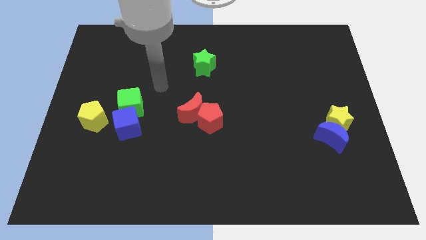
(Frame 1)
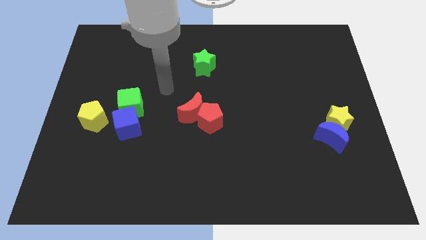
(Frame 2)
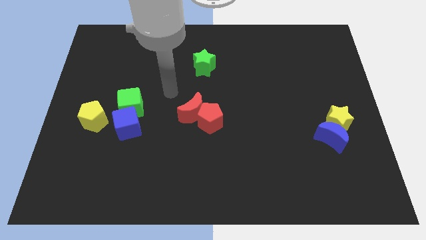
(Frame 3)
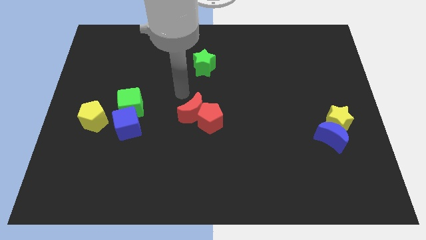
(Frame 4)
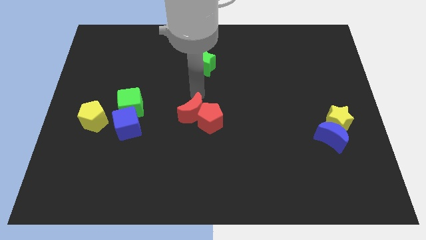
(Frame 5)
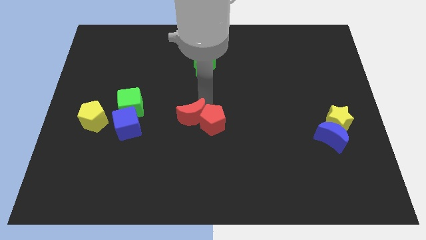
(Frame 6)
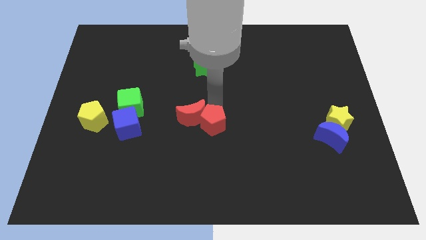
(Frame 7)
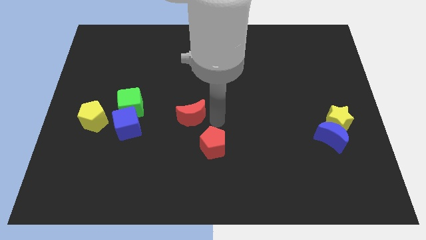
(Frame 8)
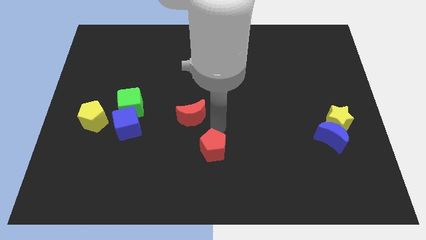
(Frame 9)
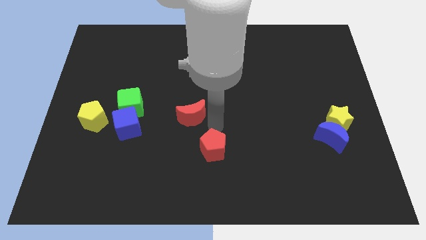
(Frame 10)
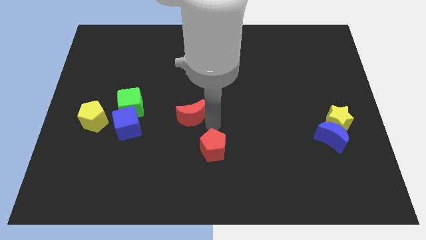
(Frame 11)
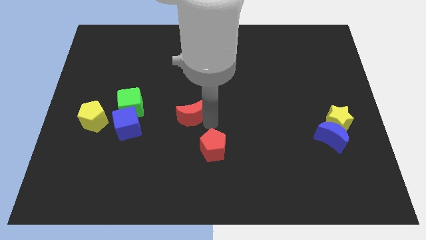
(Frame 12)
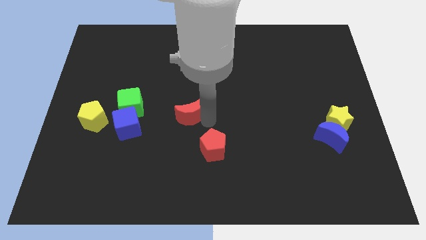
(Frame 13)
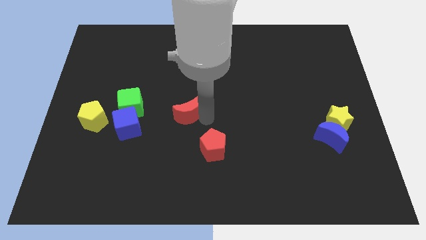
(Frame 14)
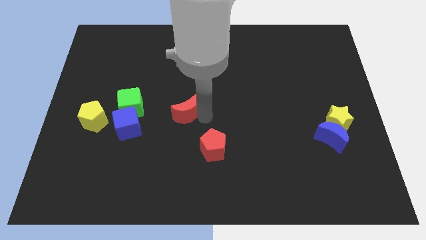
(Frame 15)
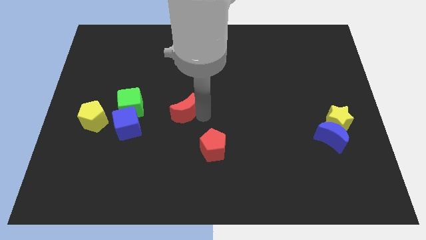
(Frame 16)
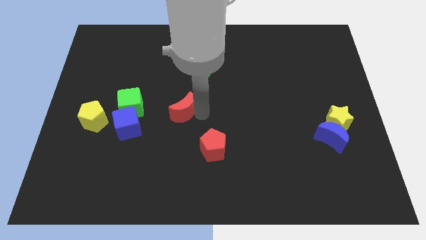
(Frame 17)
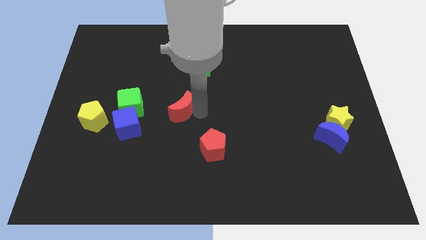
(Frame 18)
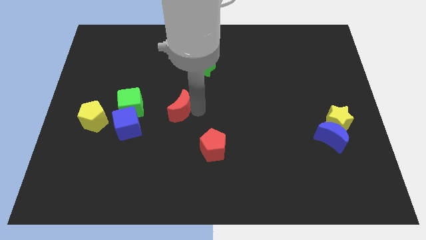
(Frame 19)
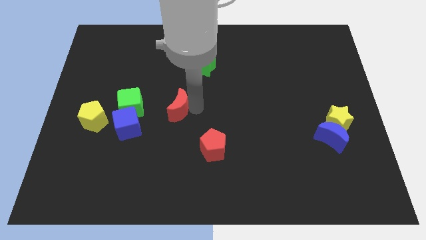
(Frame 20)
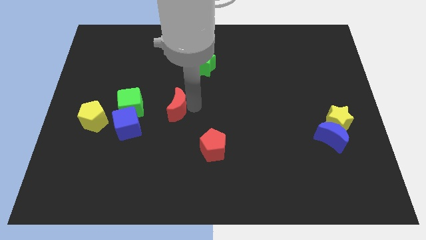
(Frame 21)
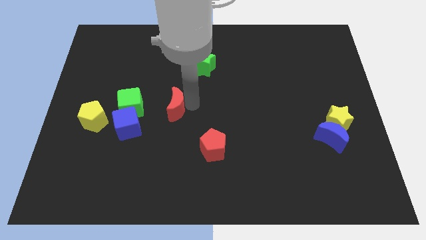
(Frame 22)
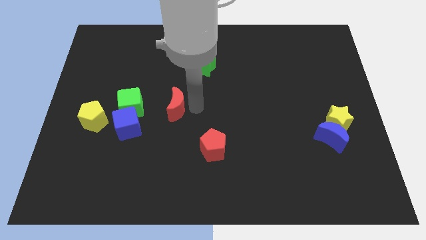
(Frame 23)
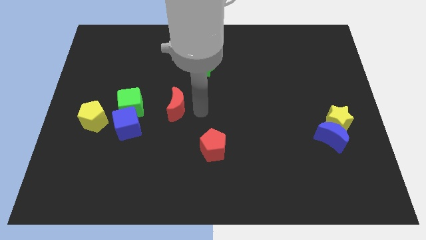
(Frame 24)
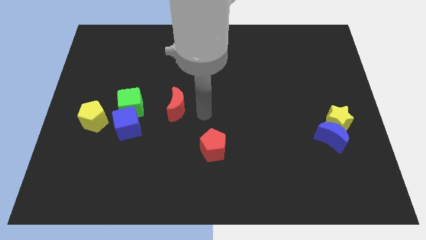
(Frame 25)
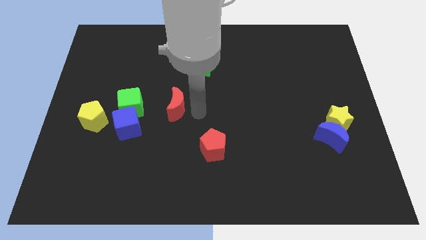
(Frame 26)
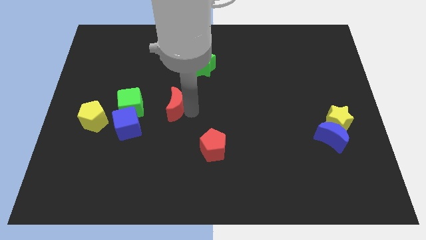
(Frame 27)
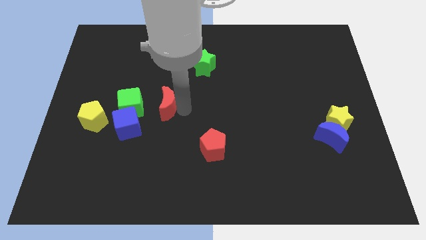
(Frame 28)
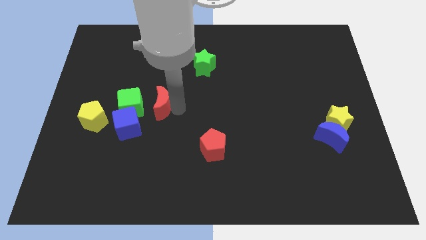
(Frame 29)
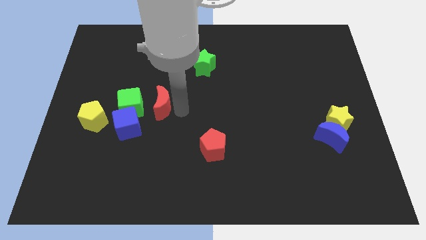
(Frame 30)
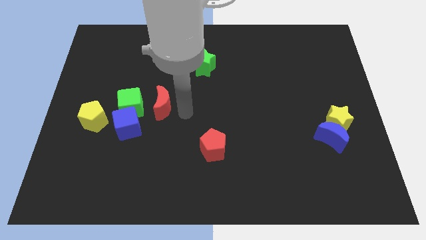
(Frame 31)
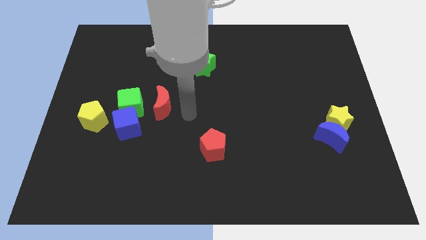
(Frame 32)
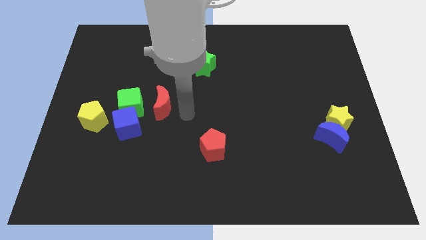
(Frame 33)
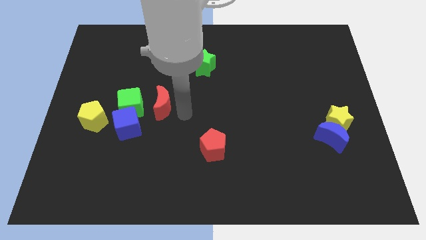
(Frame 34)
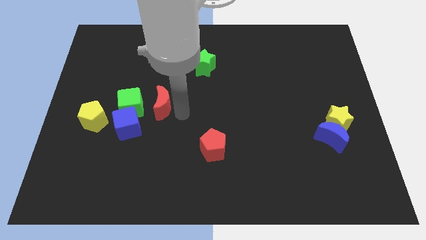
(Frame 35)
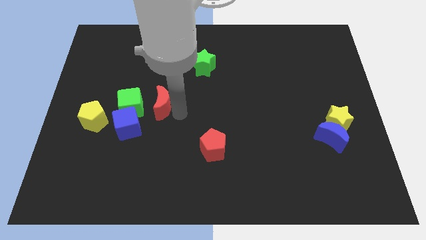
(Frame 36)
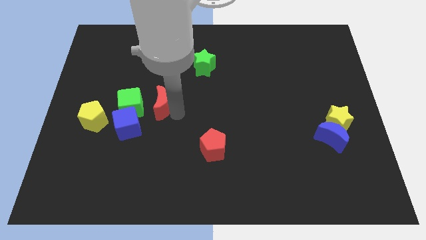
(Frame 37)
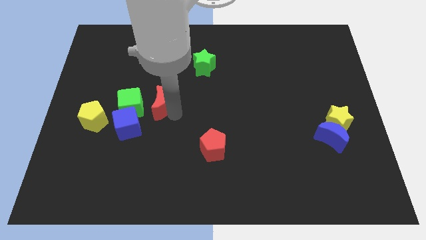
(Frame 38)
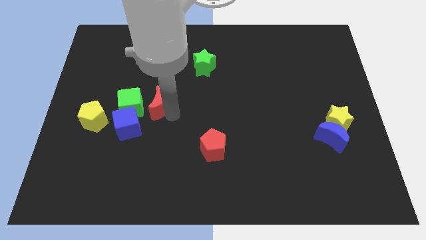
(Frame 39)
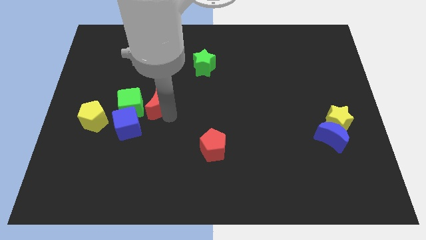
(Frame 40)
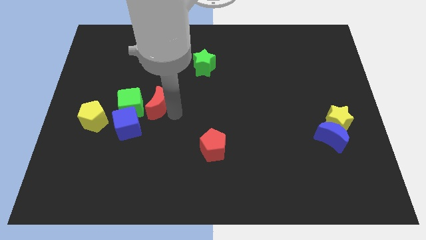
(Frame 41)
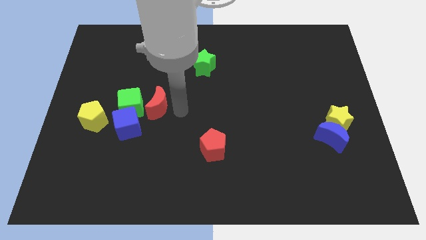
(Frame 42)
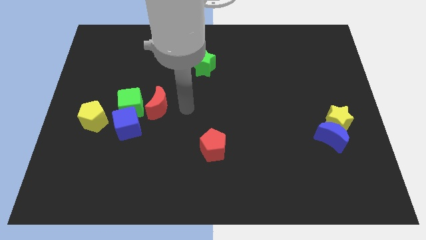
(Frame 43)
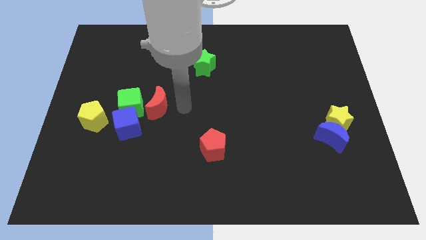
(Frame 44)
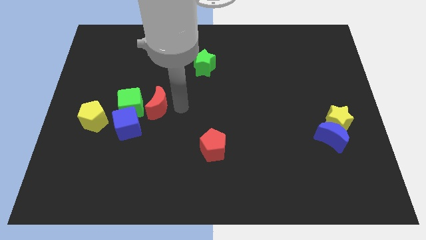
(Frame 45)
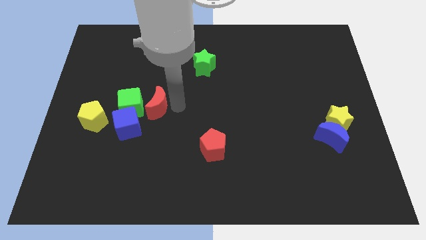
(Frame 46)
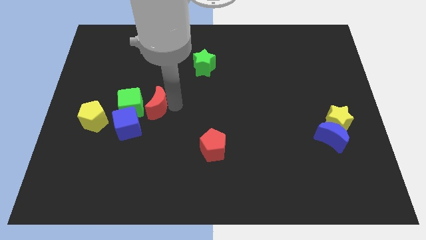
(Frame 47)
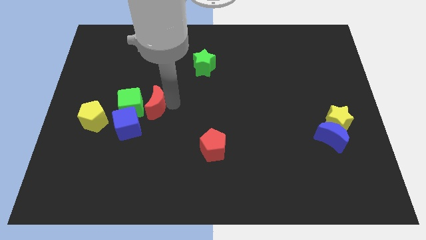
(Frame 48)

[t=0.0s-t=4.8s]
put the red moon to the green cube

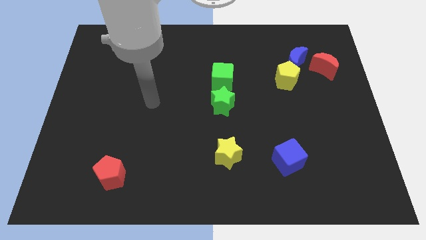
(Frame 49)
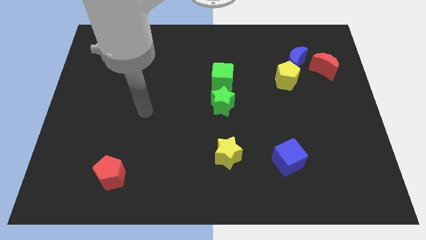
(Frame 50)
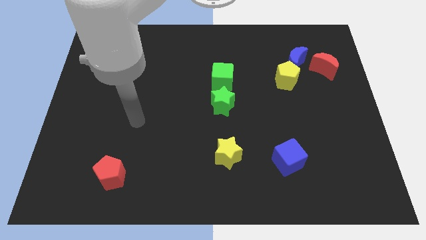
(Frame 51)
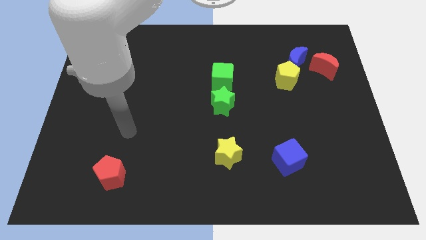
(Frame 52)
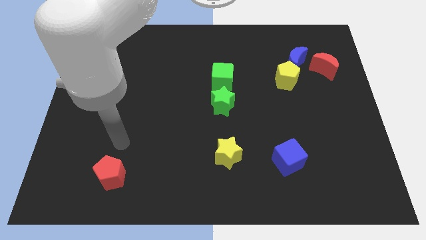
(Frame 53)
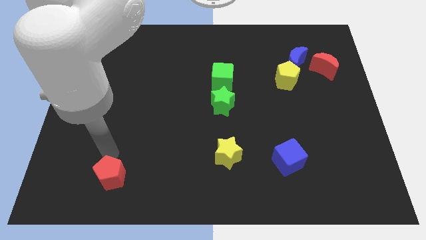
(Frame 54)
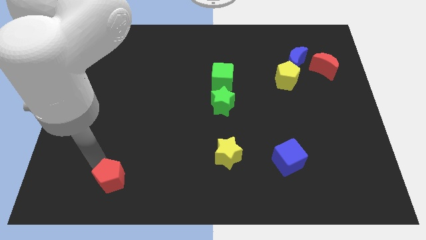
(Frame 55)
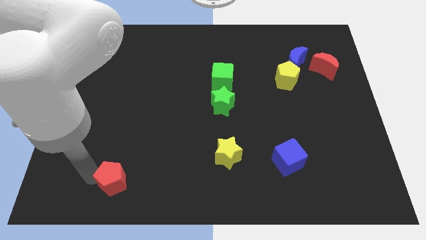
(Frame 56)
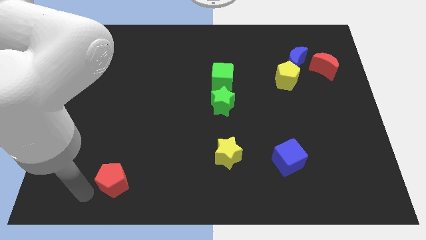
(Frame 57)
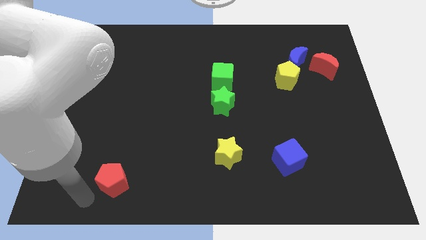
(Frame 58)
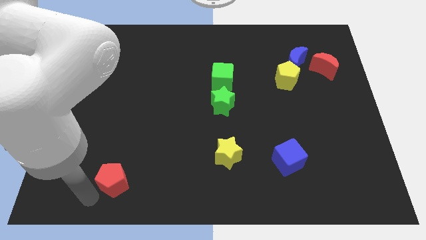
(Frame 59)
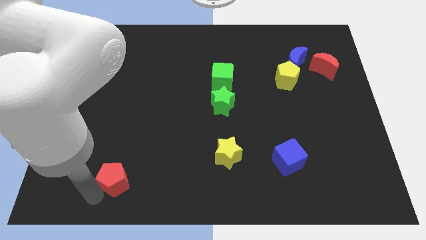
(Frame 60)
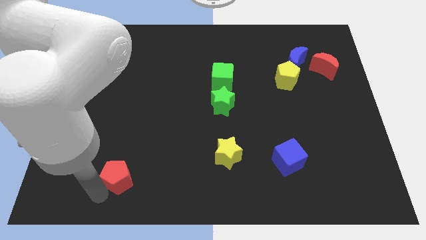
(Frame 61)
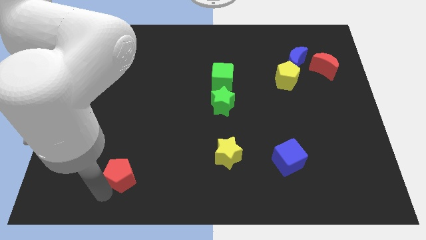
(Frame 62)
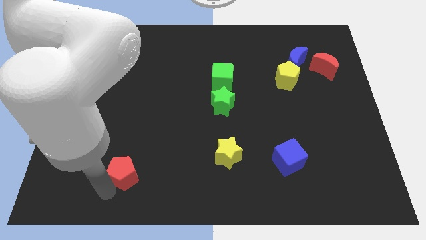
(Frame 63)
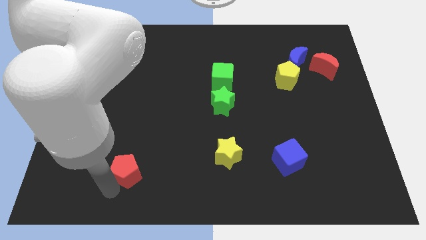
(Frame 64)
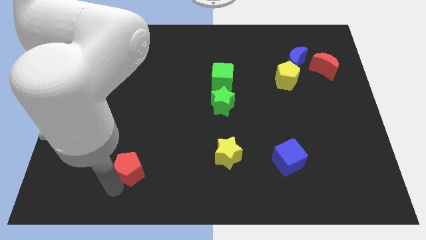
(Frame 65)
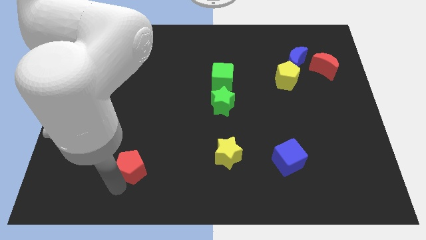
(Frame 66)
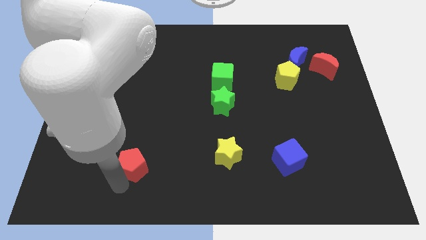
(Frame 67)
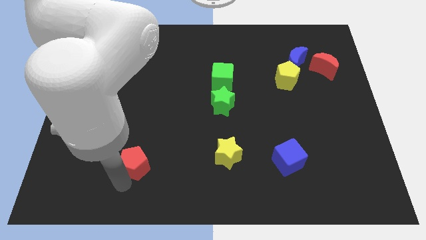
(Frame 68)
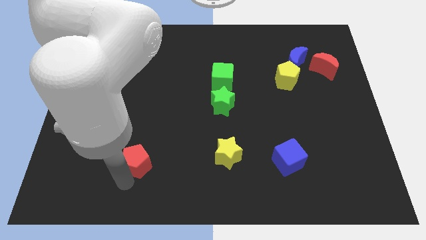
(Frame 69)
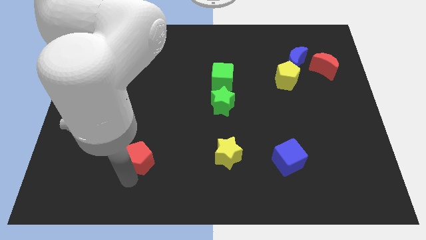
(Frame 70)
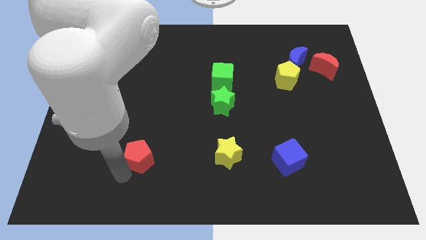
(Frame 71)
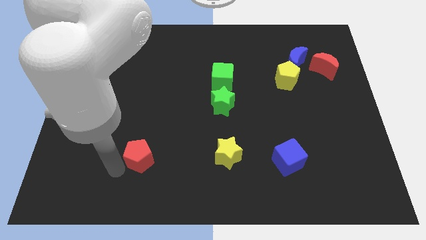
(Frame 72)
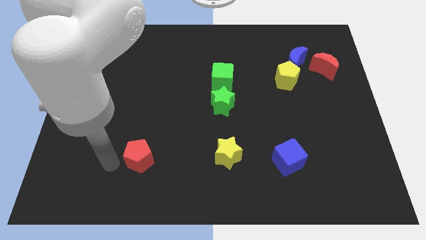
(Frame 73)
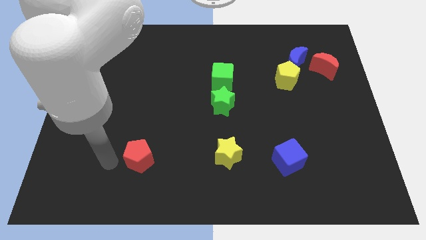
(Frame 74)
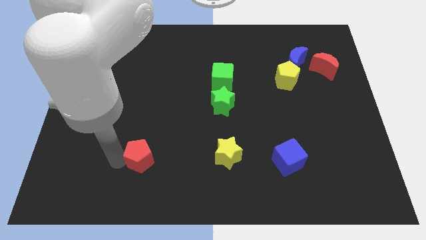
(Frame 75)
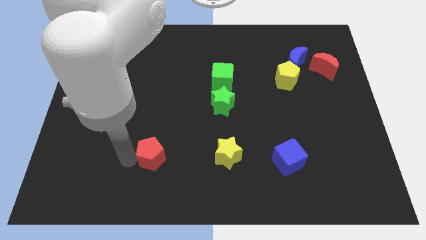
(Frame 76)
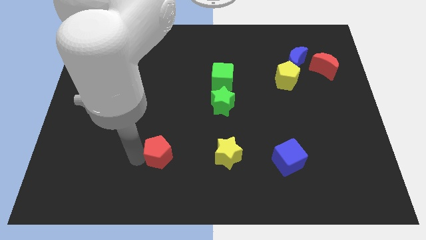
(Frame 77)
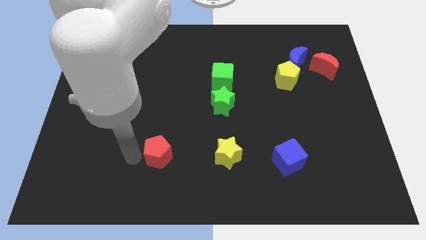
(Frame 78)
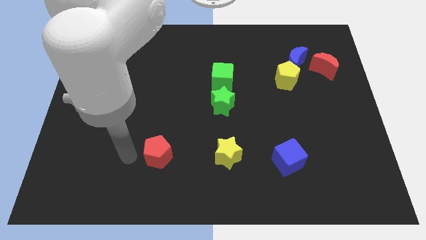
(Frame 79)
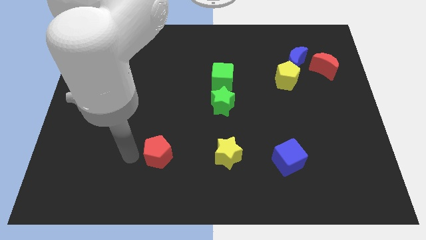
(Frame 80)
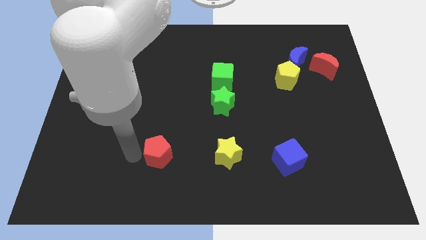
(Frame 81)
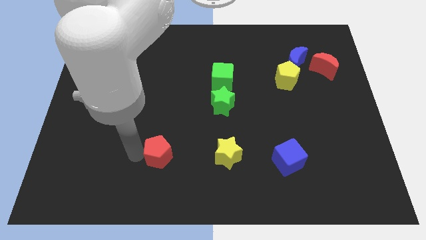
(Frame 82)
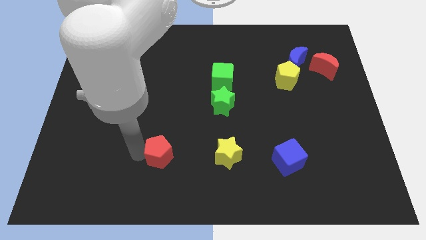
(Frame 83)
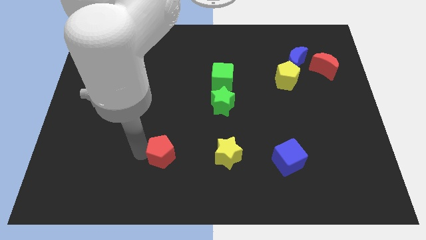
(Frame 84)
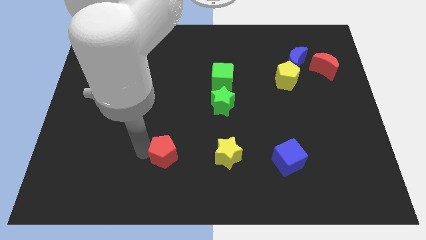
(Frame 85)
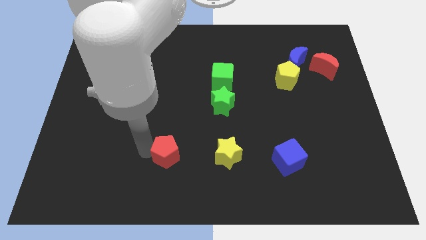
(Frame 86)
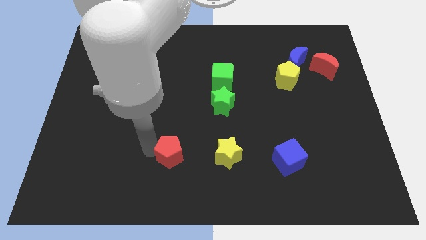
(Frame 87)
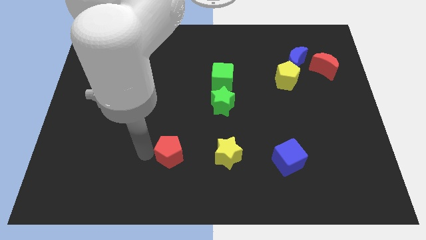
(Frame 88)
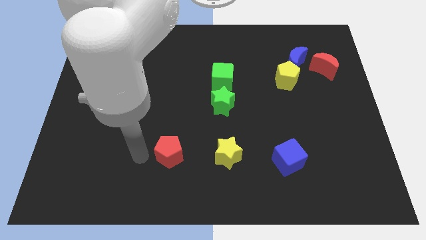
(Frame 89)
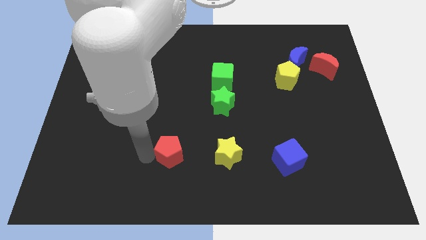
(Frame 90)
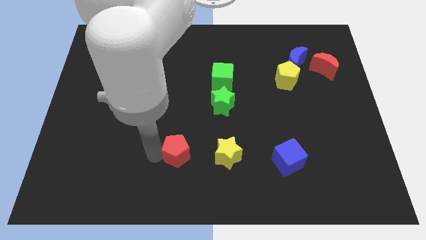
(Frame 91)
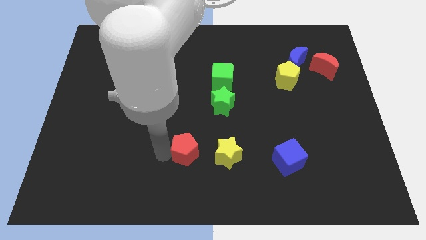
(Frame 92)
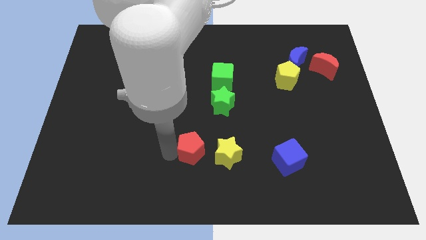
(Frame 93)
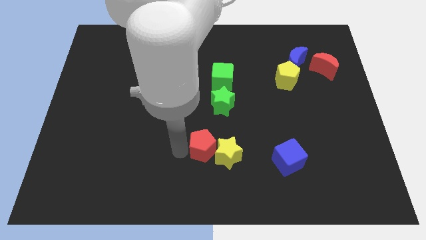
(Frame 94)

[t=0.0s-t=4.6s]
put the red pentagon close to the yellow star
